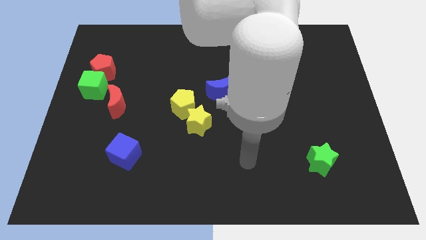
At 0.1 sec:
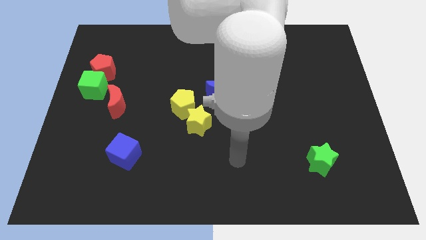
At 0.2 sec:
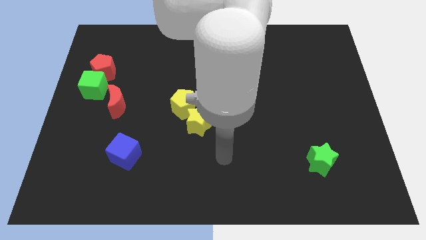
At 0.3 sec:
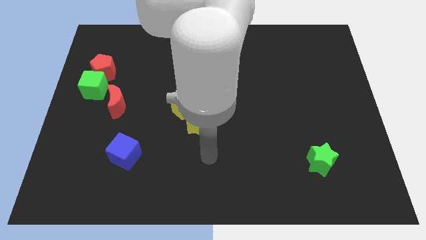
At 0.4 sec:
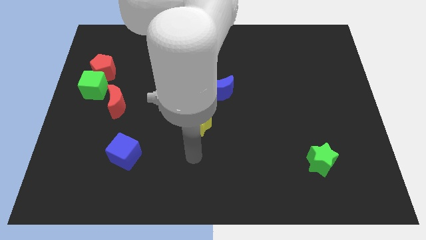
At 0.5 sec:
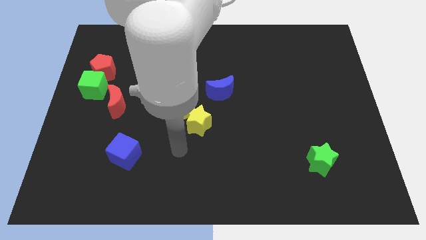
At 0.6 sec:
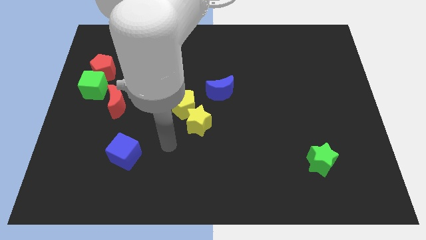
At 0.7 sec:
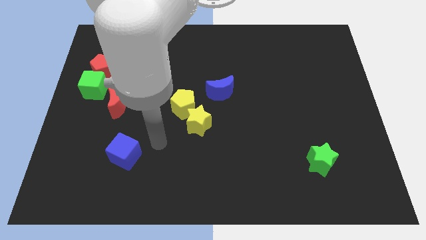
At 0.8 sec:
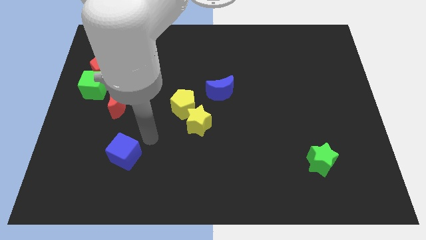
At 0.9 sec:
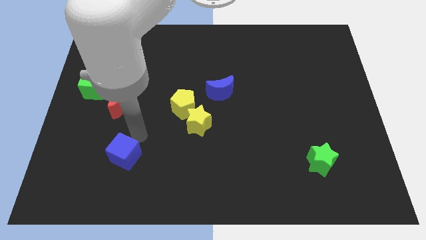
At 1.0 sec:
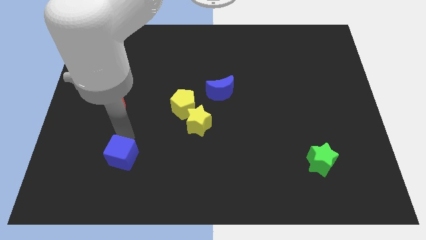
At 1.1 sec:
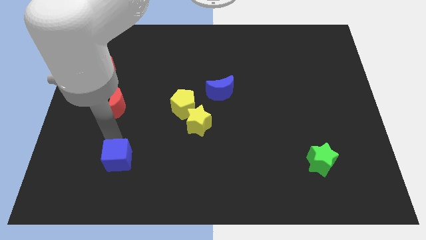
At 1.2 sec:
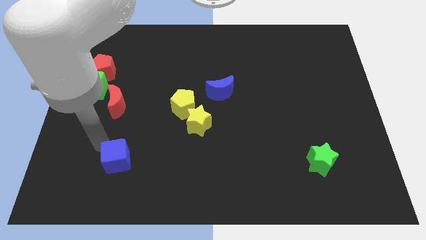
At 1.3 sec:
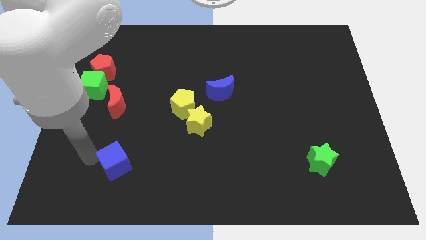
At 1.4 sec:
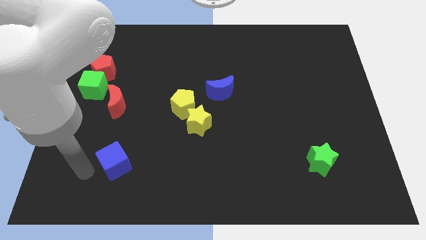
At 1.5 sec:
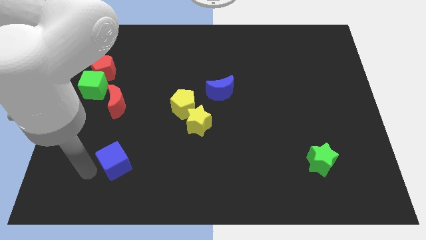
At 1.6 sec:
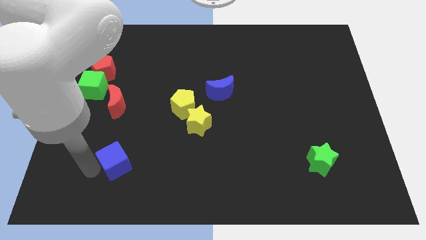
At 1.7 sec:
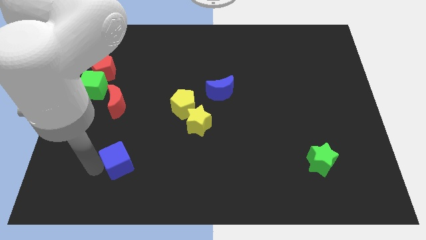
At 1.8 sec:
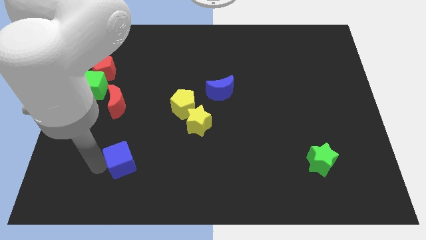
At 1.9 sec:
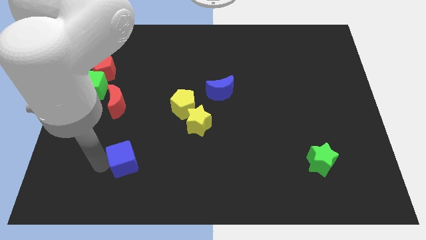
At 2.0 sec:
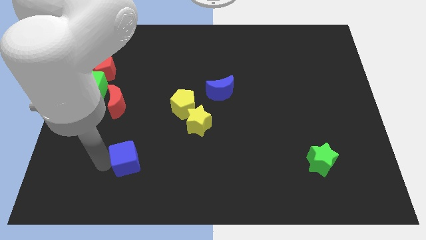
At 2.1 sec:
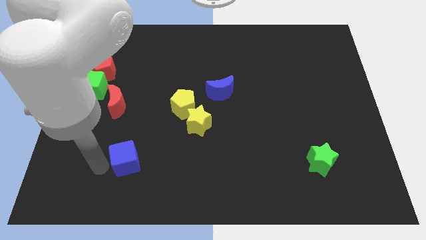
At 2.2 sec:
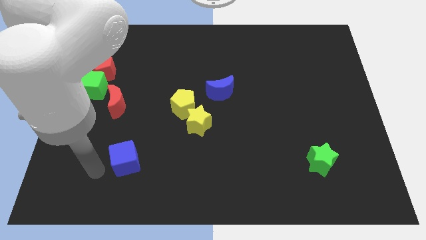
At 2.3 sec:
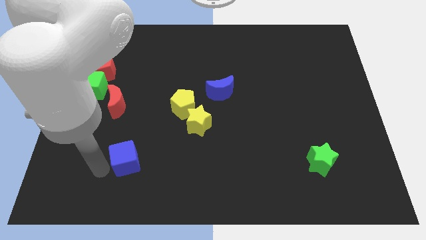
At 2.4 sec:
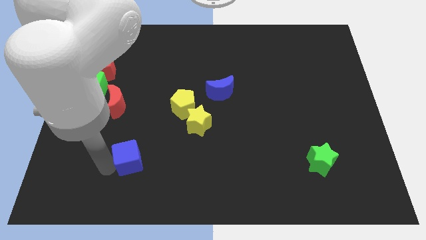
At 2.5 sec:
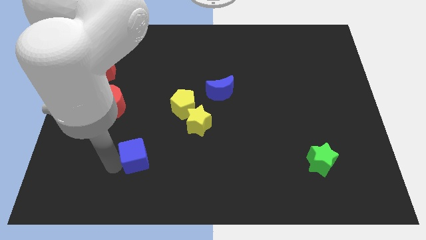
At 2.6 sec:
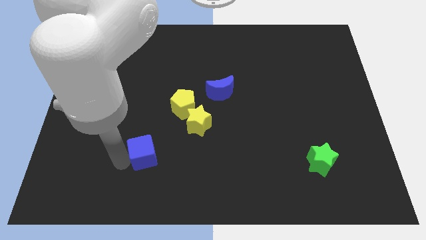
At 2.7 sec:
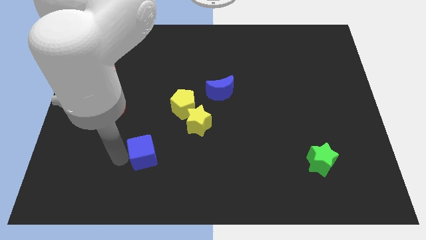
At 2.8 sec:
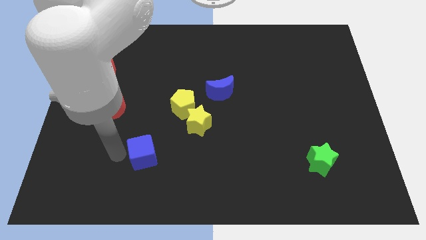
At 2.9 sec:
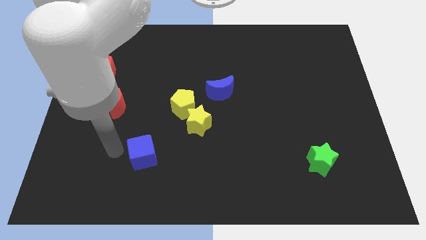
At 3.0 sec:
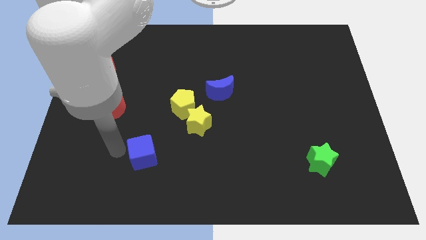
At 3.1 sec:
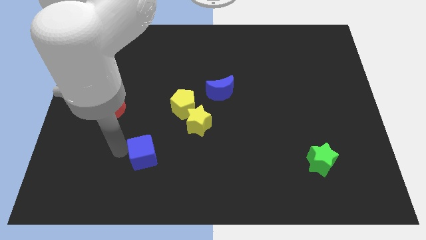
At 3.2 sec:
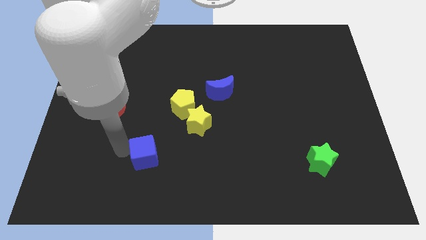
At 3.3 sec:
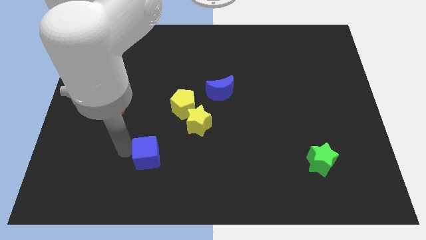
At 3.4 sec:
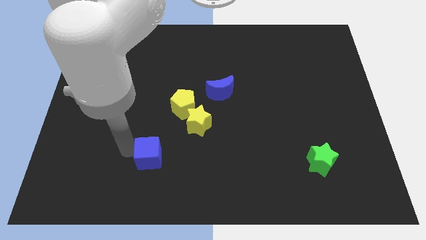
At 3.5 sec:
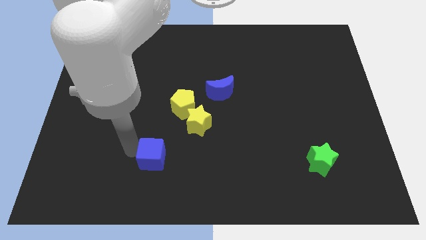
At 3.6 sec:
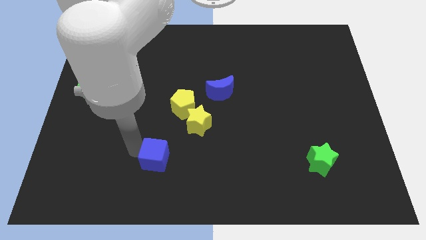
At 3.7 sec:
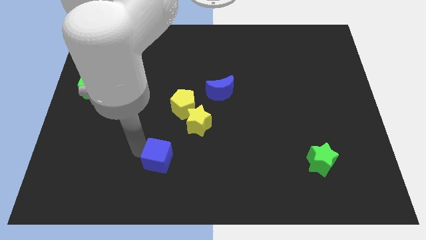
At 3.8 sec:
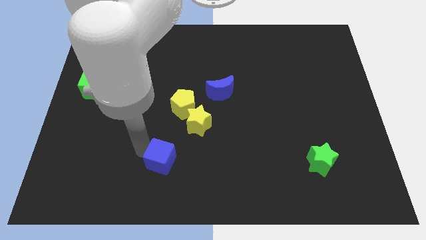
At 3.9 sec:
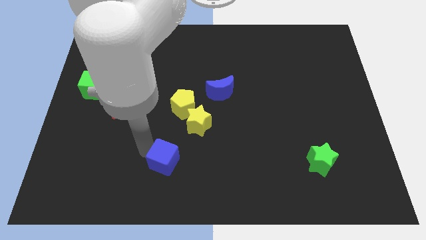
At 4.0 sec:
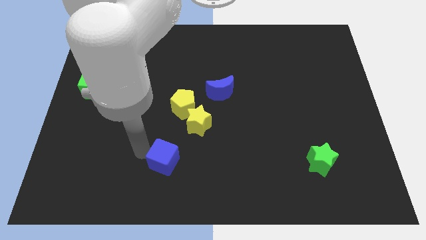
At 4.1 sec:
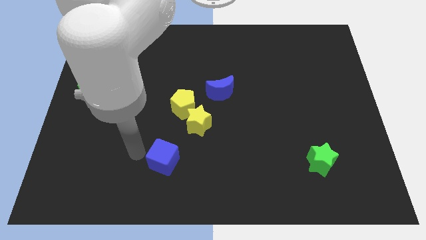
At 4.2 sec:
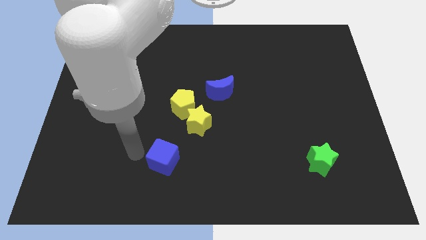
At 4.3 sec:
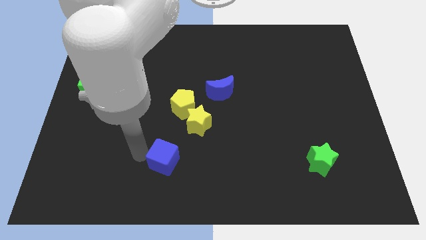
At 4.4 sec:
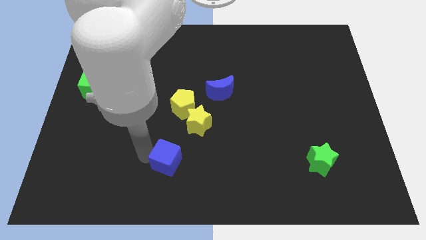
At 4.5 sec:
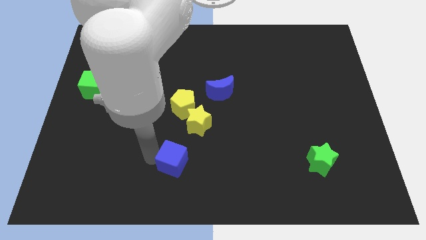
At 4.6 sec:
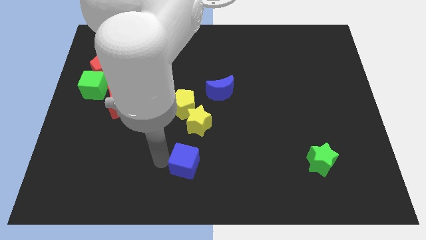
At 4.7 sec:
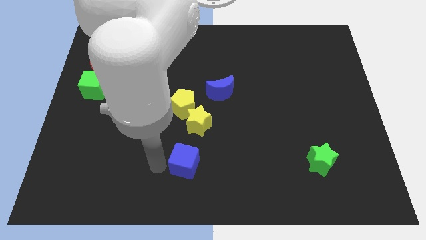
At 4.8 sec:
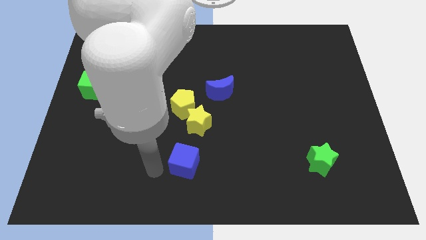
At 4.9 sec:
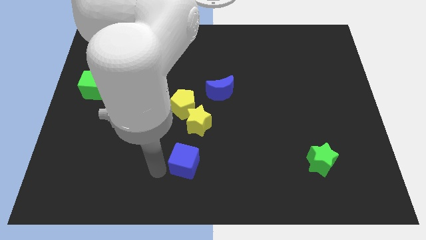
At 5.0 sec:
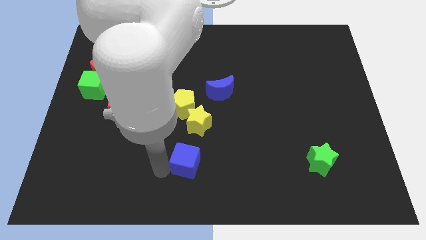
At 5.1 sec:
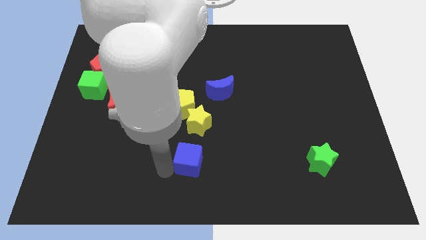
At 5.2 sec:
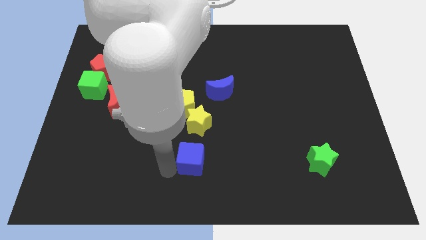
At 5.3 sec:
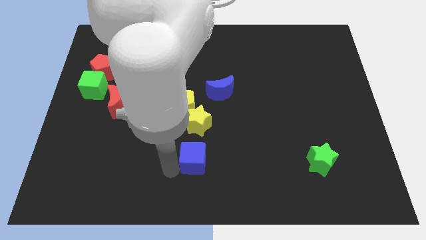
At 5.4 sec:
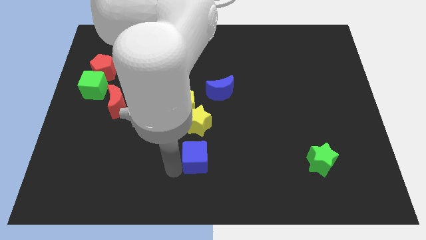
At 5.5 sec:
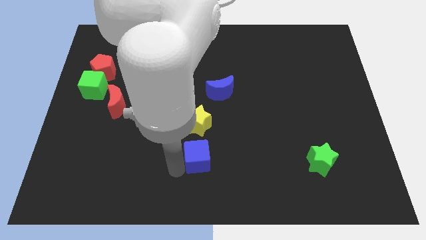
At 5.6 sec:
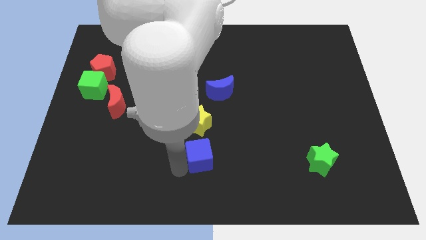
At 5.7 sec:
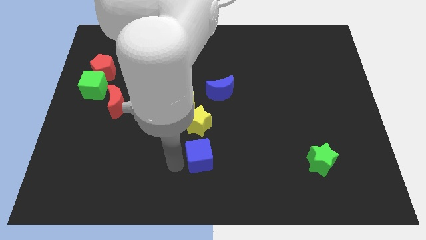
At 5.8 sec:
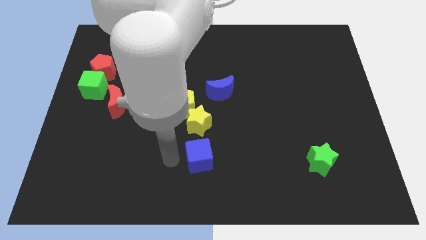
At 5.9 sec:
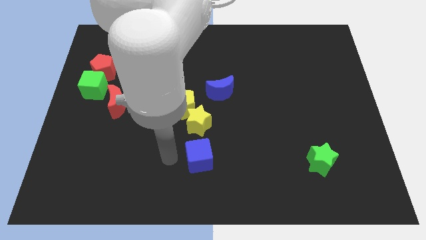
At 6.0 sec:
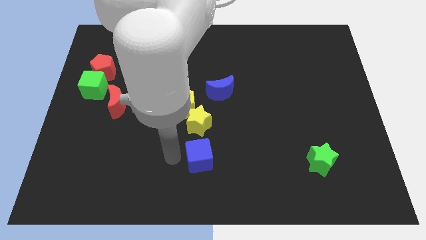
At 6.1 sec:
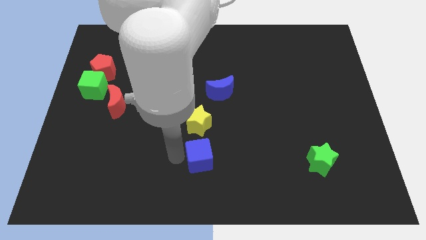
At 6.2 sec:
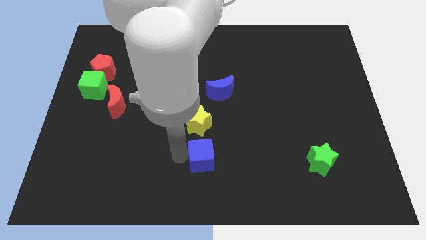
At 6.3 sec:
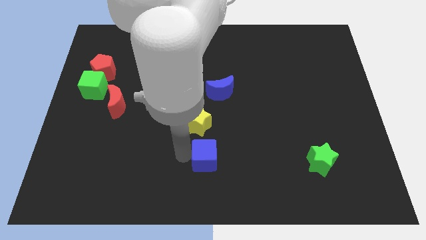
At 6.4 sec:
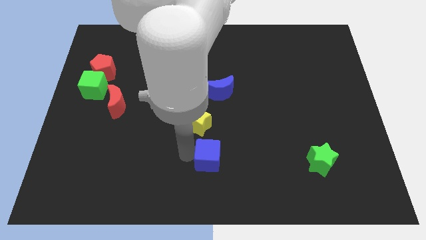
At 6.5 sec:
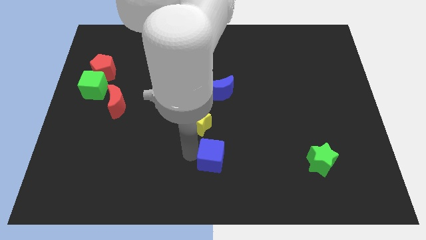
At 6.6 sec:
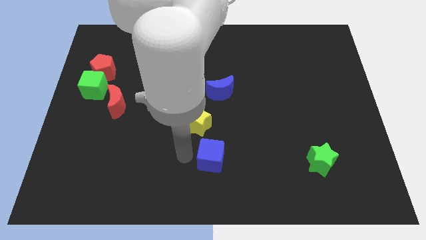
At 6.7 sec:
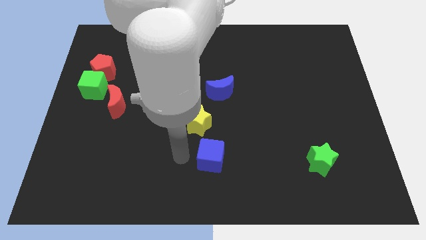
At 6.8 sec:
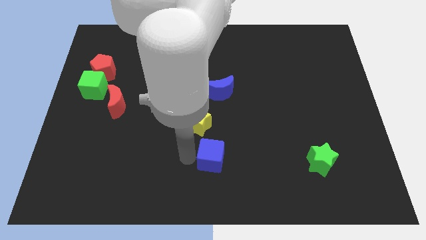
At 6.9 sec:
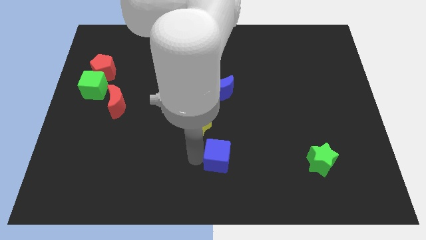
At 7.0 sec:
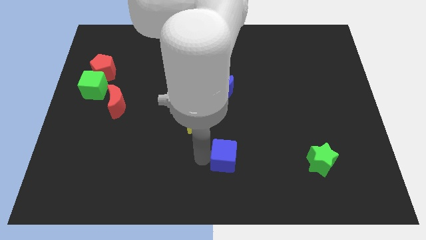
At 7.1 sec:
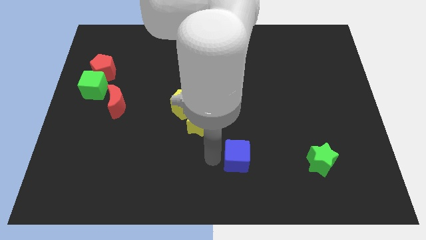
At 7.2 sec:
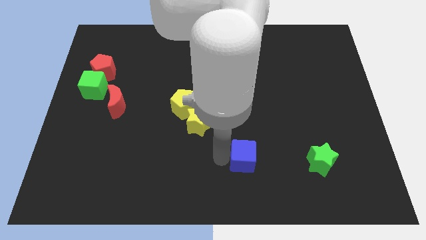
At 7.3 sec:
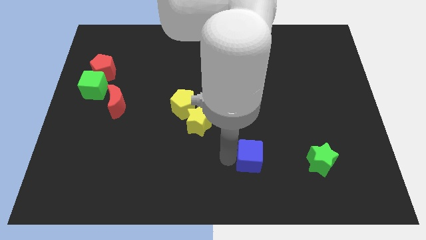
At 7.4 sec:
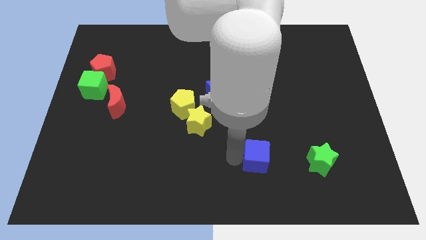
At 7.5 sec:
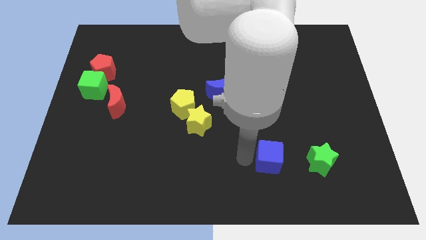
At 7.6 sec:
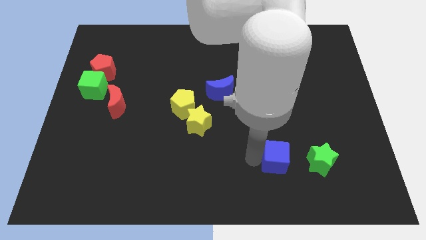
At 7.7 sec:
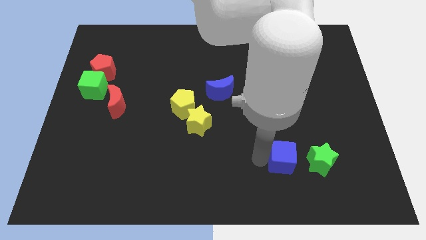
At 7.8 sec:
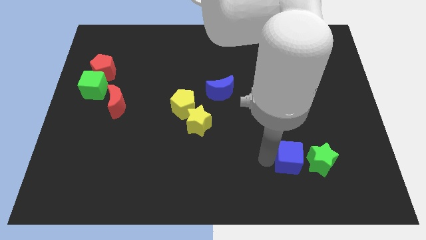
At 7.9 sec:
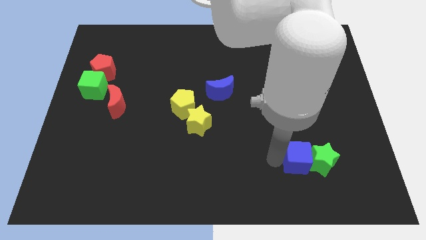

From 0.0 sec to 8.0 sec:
slide the blue cube next to the green star
